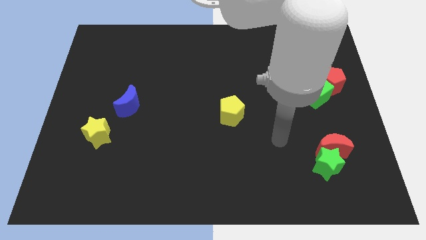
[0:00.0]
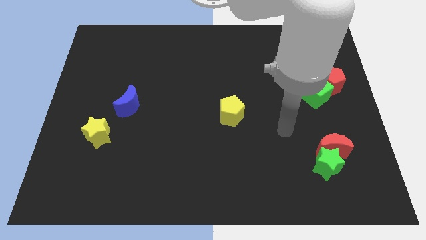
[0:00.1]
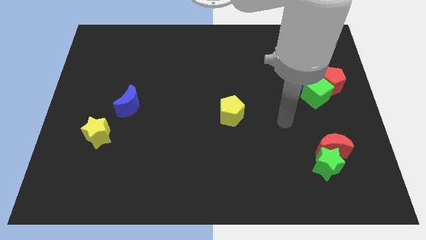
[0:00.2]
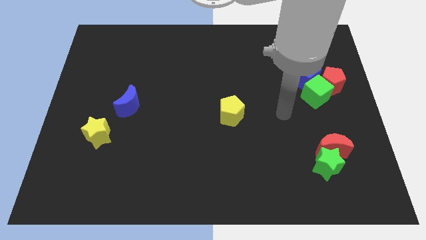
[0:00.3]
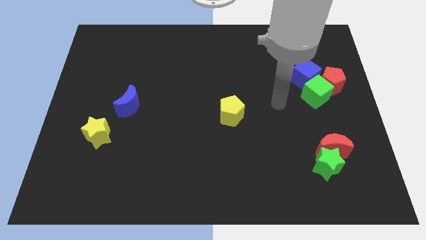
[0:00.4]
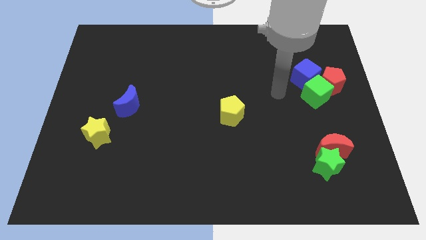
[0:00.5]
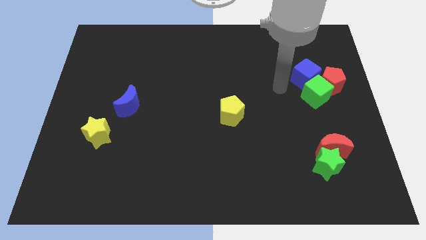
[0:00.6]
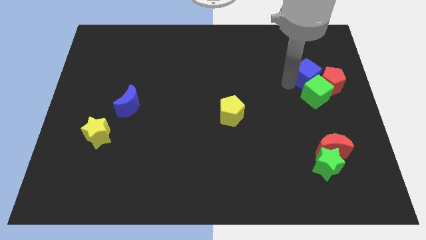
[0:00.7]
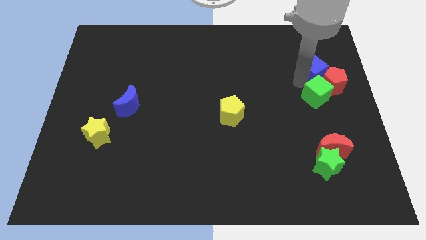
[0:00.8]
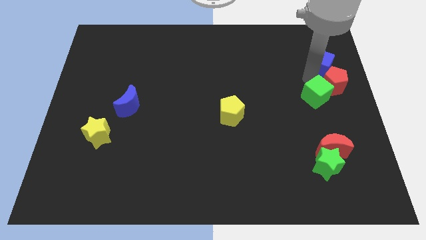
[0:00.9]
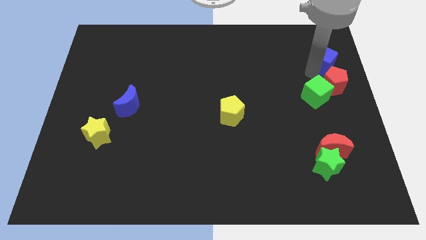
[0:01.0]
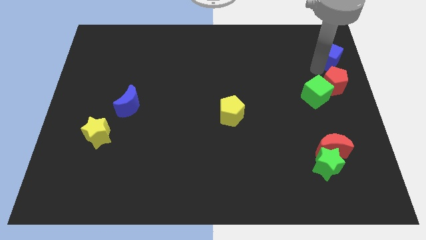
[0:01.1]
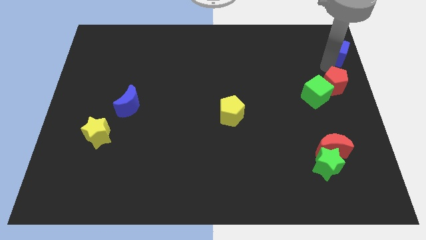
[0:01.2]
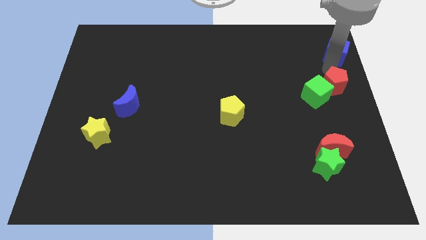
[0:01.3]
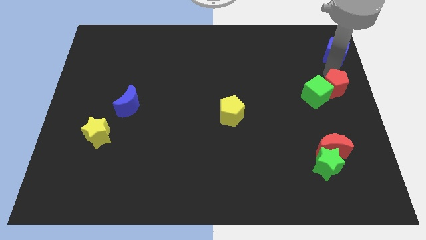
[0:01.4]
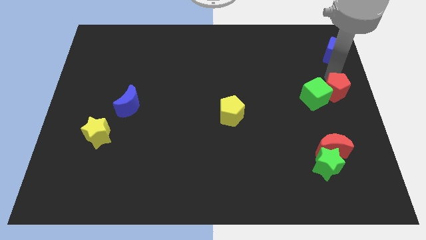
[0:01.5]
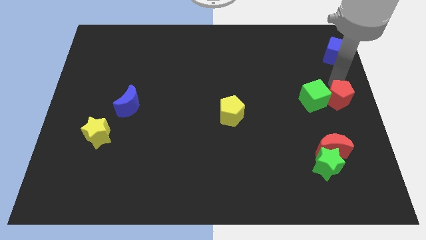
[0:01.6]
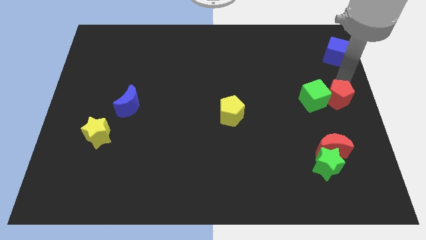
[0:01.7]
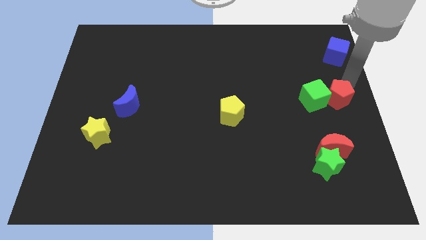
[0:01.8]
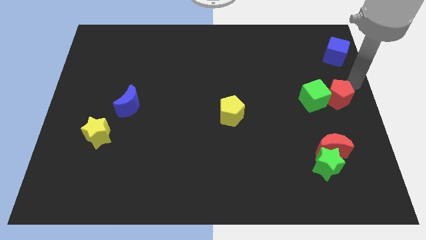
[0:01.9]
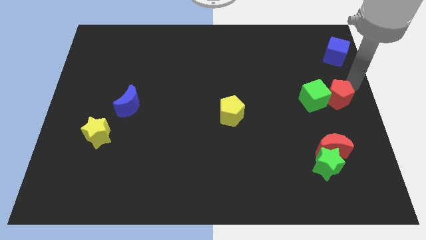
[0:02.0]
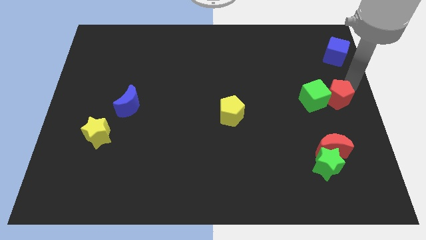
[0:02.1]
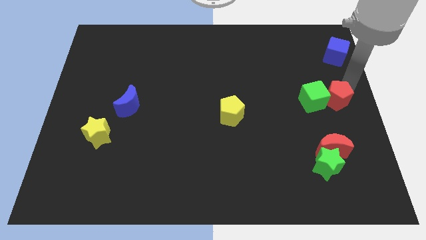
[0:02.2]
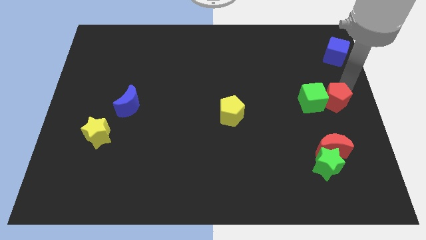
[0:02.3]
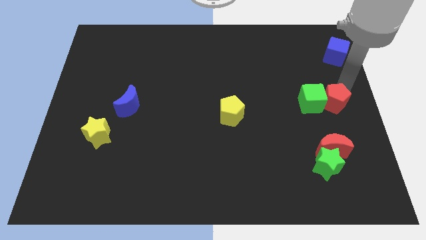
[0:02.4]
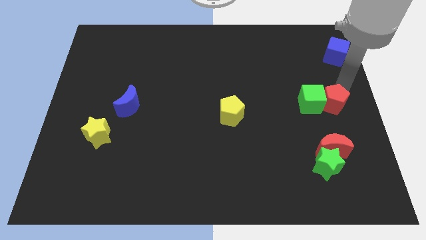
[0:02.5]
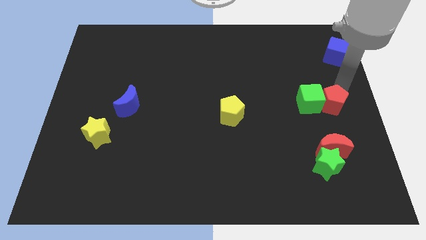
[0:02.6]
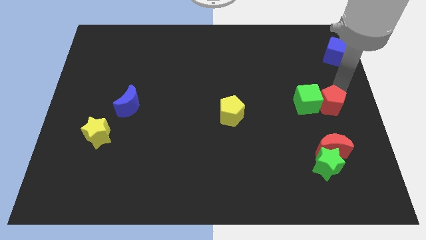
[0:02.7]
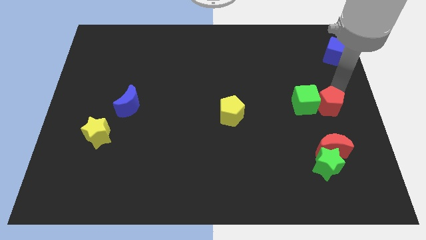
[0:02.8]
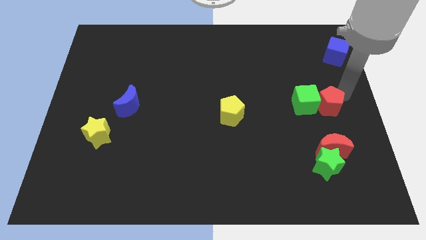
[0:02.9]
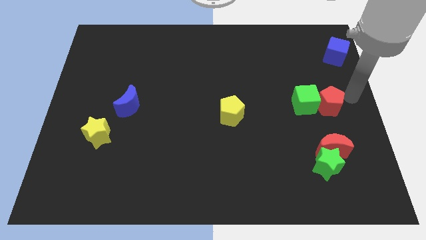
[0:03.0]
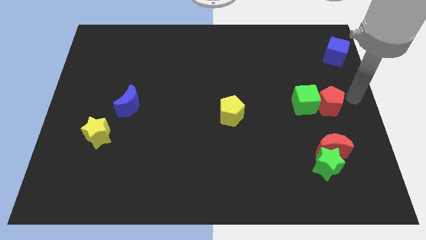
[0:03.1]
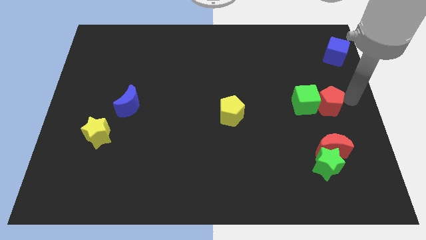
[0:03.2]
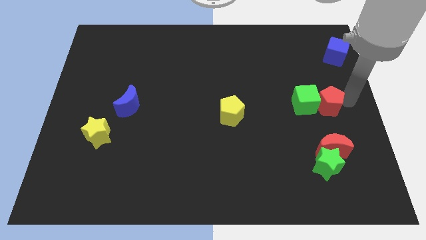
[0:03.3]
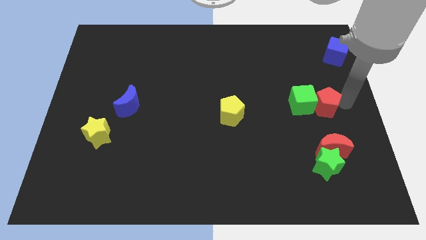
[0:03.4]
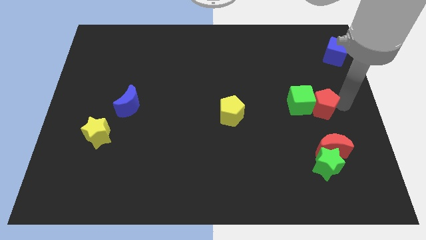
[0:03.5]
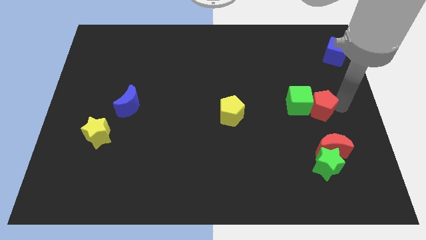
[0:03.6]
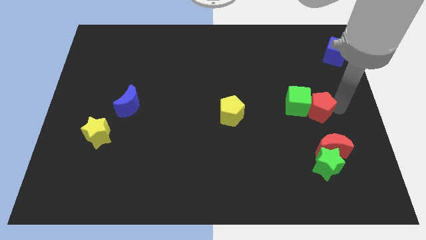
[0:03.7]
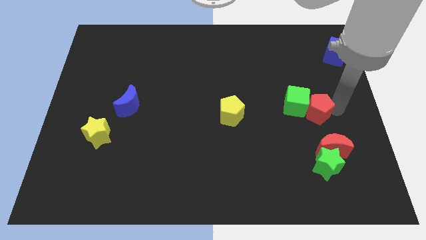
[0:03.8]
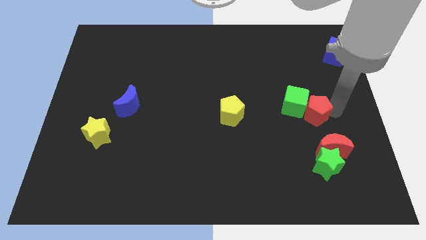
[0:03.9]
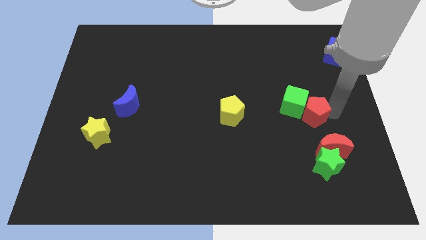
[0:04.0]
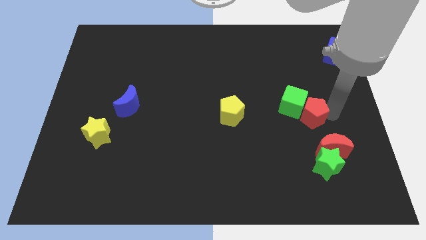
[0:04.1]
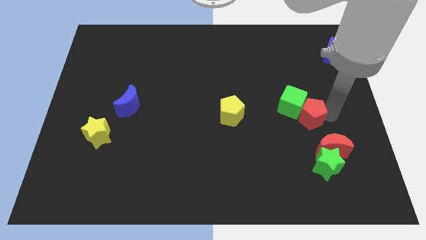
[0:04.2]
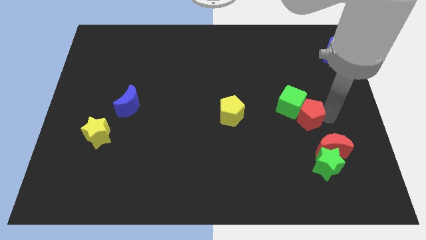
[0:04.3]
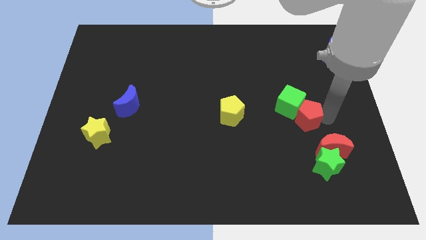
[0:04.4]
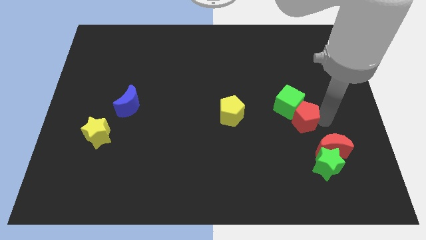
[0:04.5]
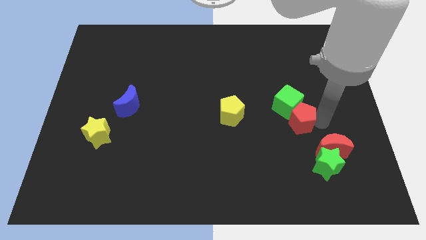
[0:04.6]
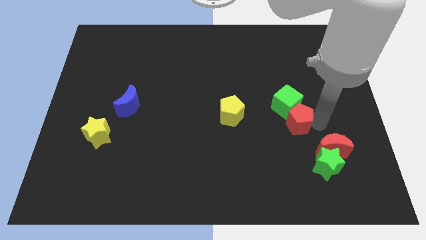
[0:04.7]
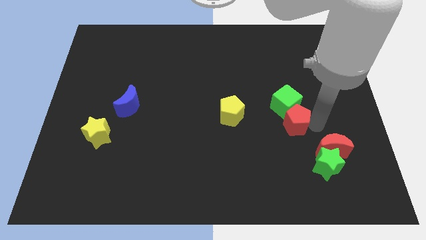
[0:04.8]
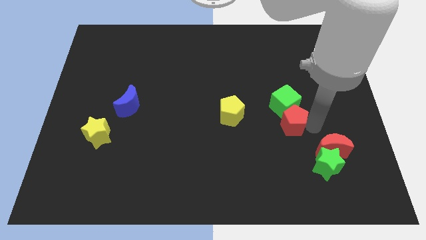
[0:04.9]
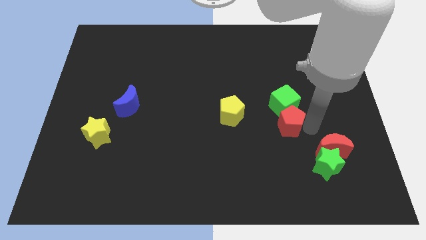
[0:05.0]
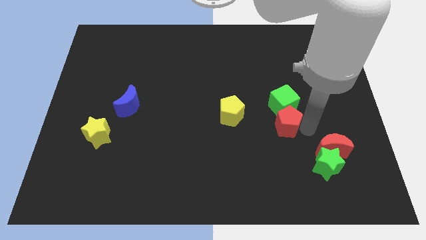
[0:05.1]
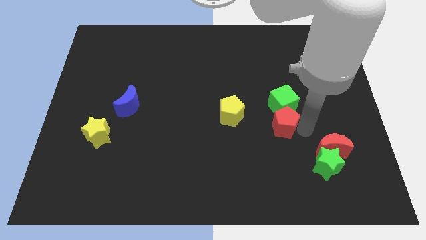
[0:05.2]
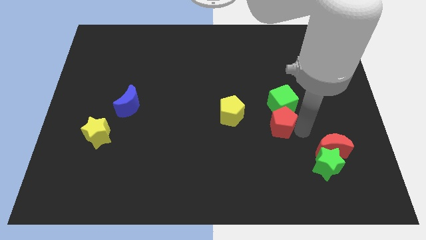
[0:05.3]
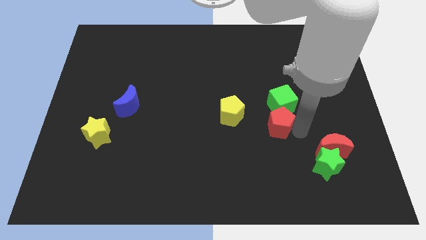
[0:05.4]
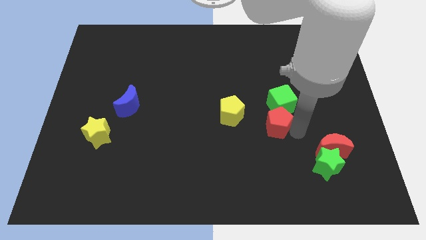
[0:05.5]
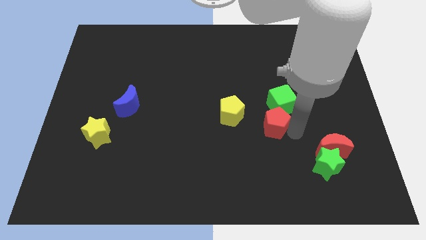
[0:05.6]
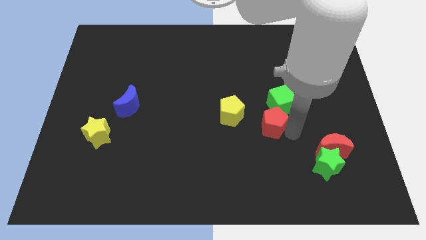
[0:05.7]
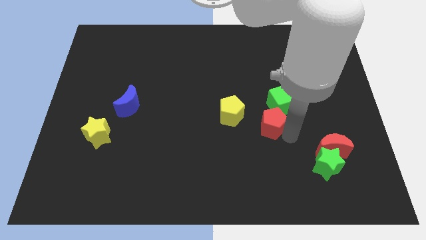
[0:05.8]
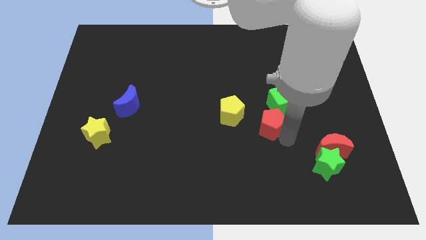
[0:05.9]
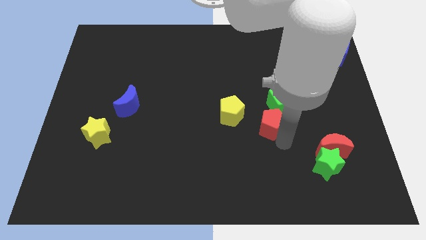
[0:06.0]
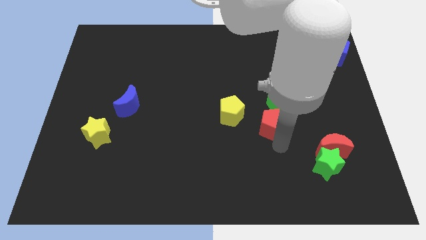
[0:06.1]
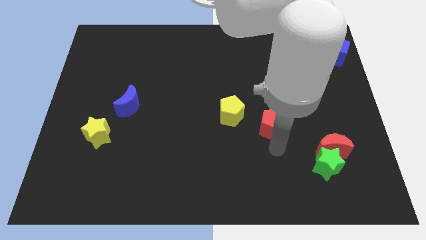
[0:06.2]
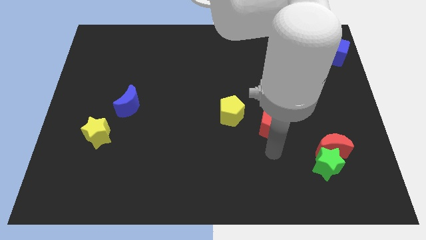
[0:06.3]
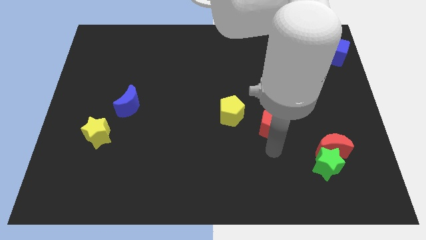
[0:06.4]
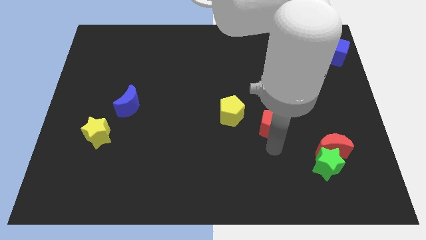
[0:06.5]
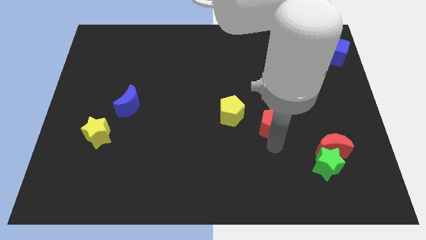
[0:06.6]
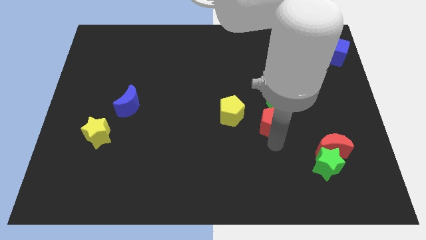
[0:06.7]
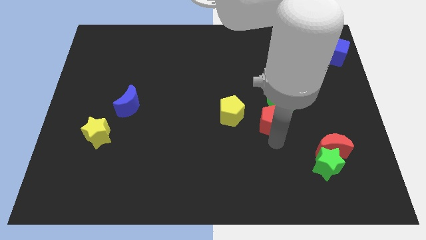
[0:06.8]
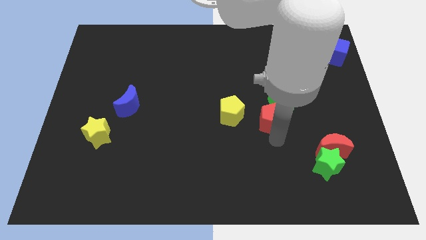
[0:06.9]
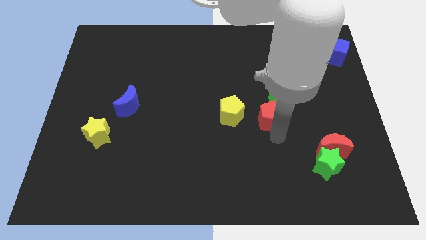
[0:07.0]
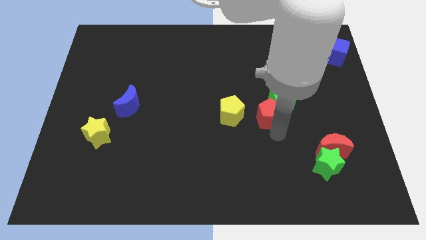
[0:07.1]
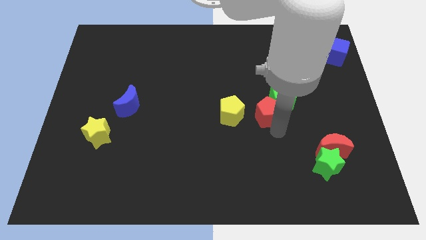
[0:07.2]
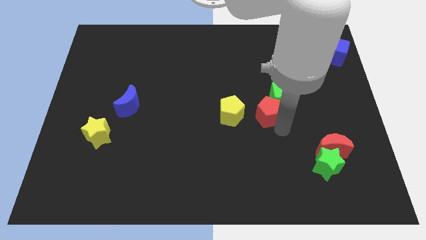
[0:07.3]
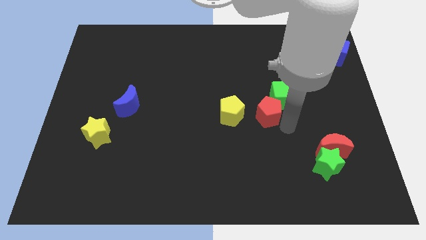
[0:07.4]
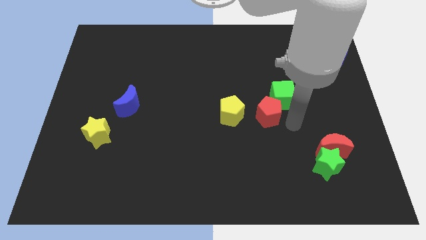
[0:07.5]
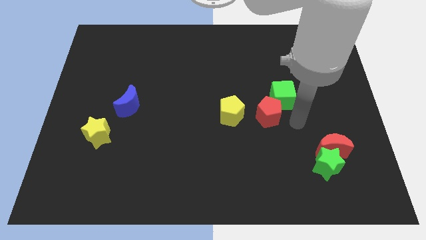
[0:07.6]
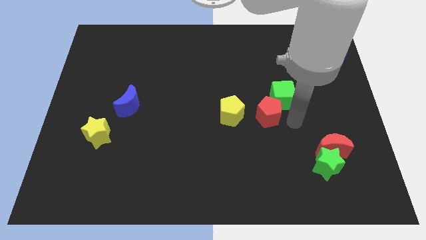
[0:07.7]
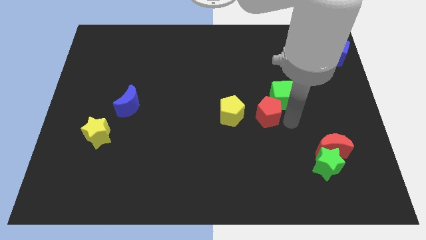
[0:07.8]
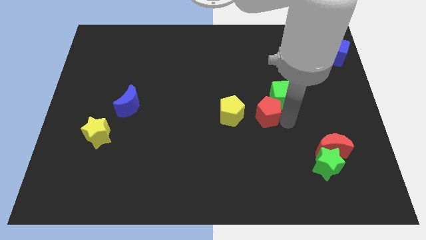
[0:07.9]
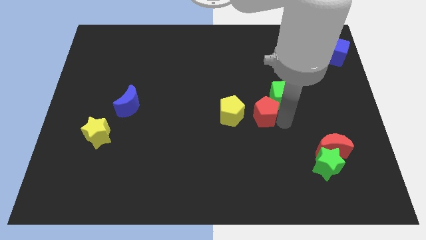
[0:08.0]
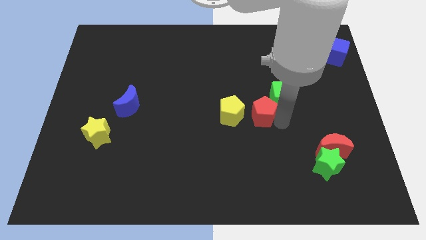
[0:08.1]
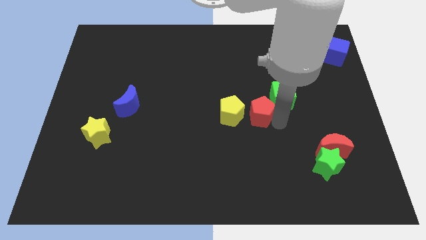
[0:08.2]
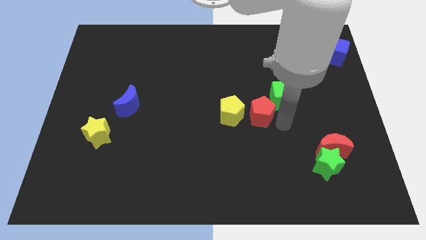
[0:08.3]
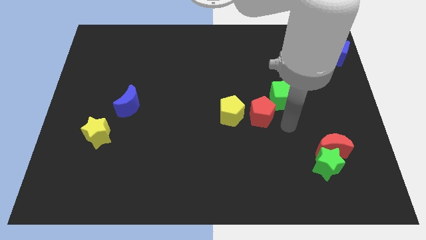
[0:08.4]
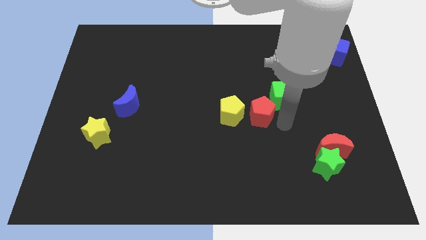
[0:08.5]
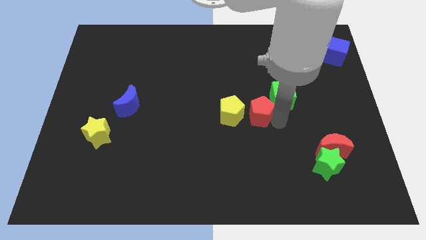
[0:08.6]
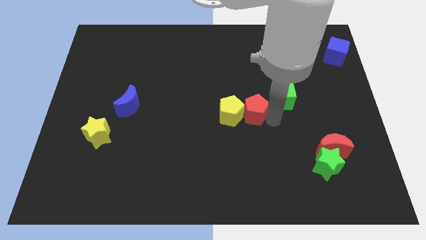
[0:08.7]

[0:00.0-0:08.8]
put the red pentagon to the yellow pentagon
